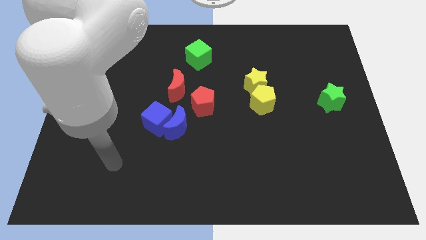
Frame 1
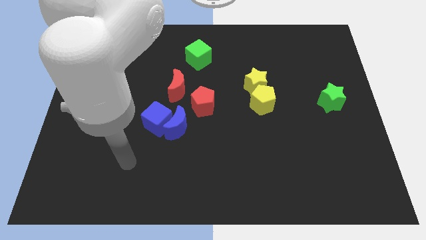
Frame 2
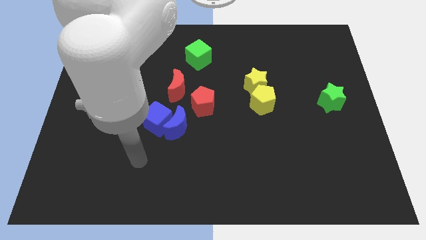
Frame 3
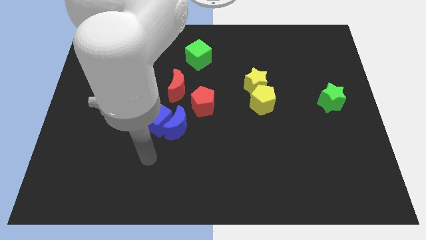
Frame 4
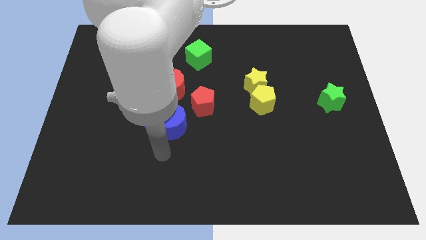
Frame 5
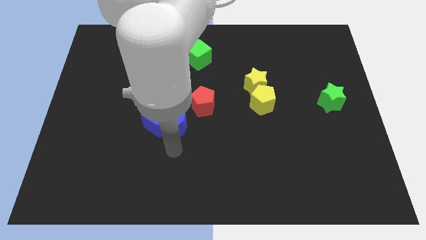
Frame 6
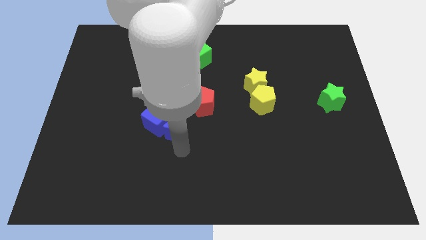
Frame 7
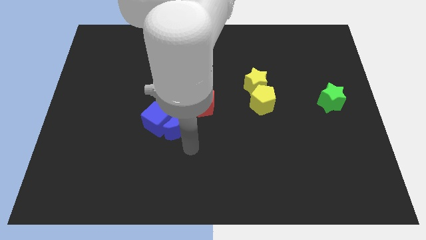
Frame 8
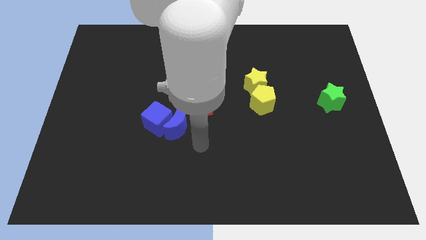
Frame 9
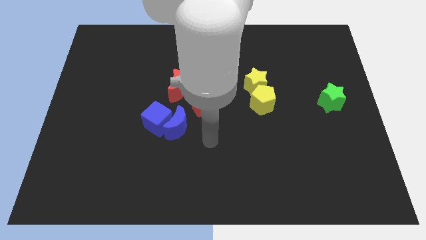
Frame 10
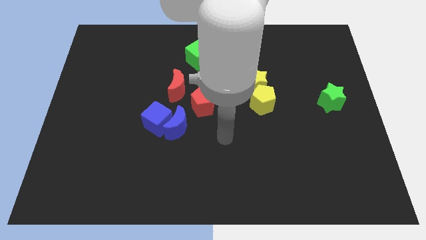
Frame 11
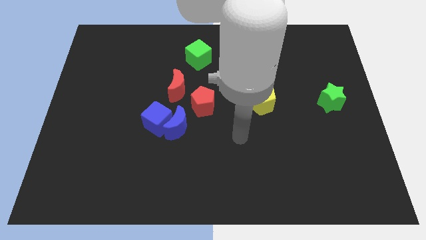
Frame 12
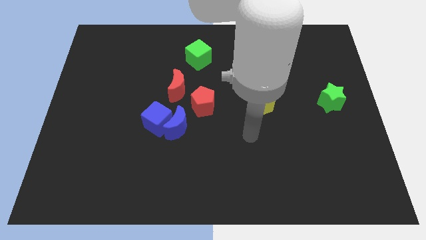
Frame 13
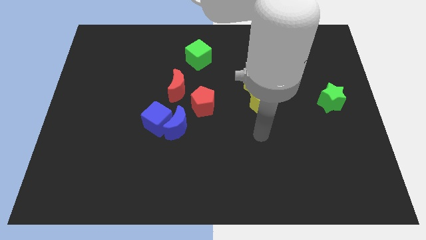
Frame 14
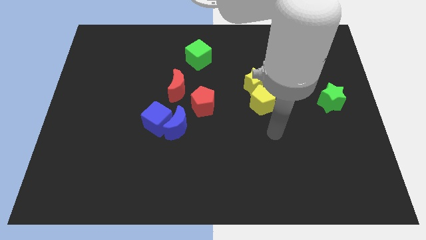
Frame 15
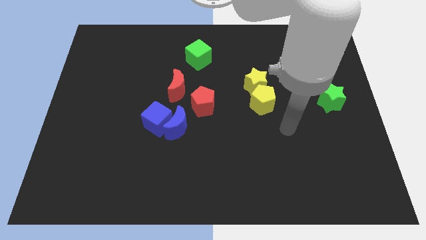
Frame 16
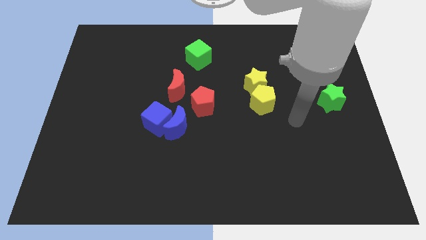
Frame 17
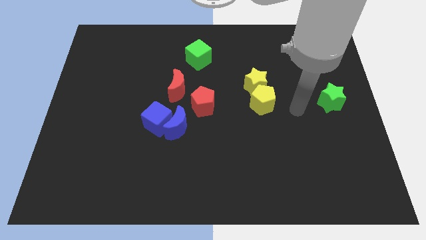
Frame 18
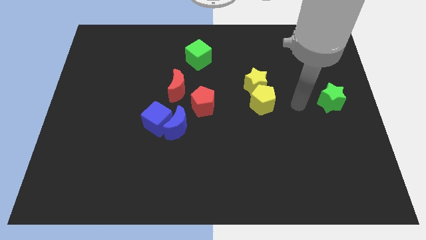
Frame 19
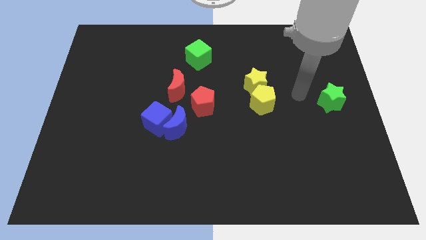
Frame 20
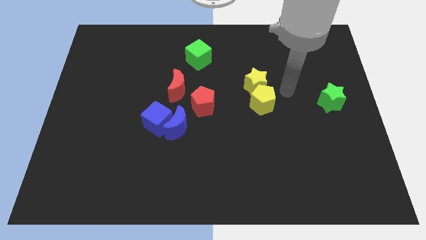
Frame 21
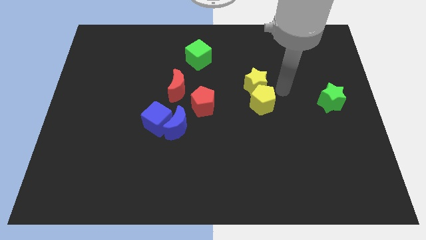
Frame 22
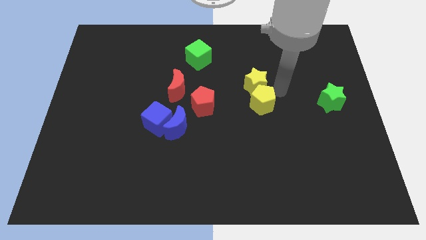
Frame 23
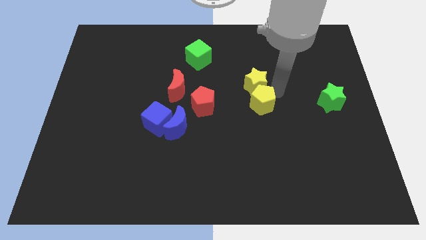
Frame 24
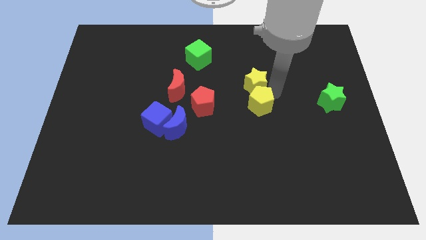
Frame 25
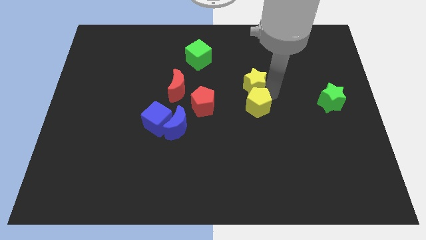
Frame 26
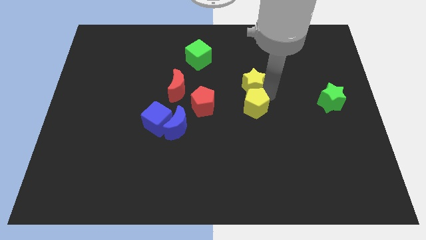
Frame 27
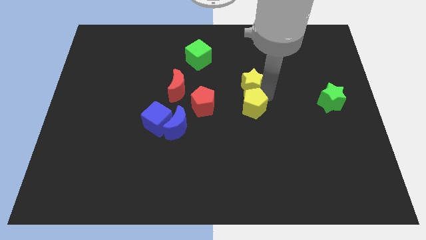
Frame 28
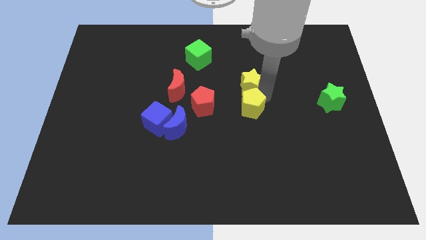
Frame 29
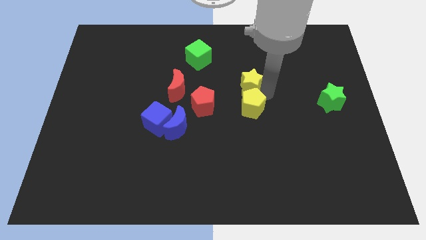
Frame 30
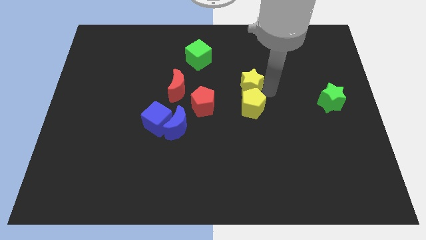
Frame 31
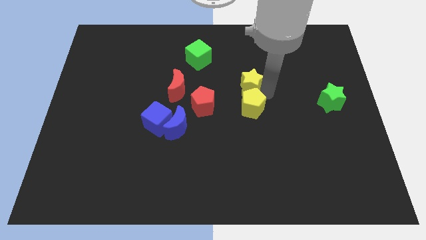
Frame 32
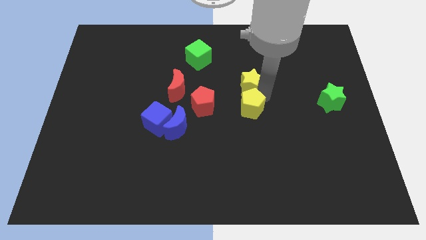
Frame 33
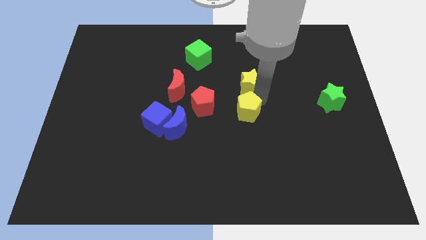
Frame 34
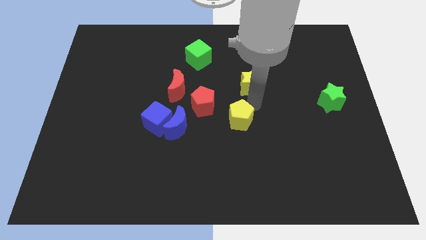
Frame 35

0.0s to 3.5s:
slightly push the yellow pentagon diagonally downwards and left

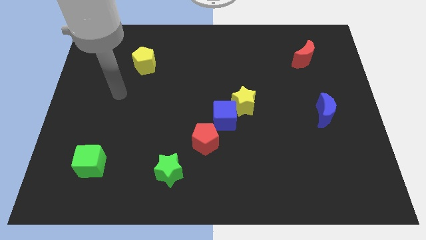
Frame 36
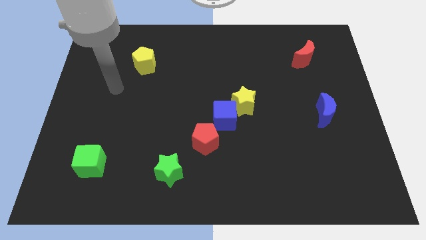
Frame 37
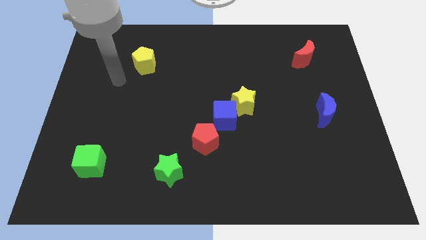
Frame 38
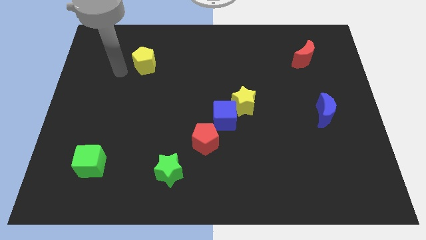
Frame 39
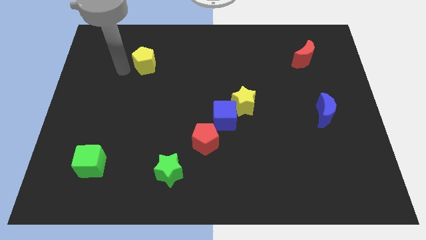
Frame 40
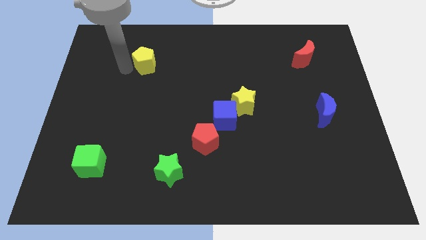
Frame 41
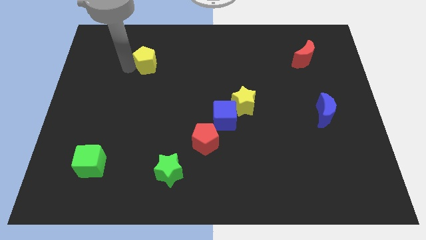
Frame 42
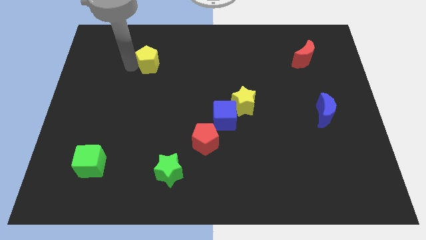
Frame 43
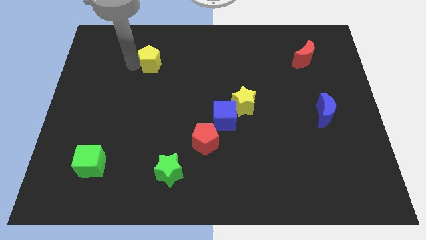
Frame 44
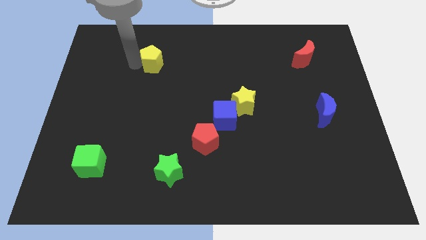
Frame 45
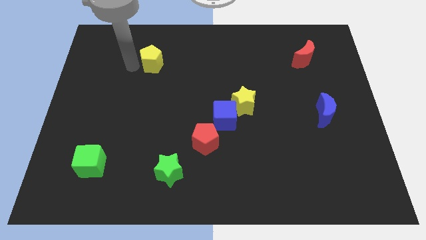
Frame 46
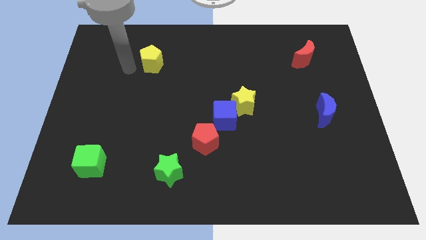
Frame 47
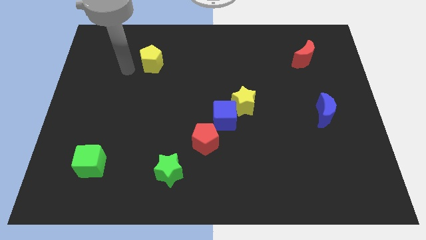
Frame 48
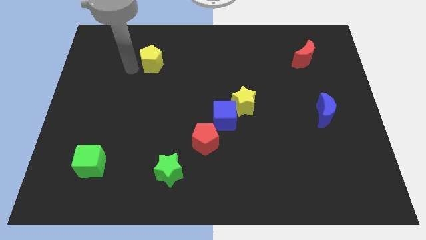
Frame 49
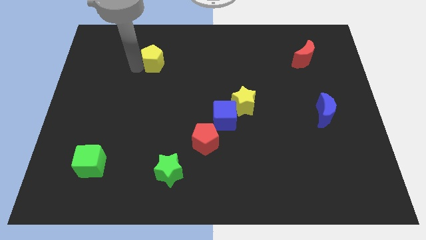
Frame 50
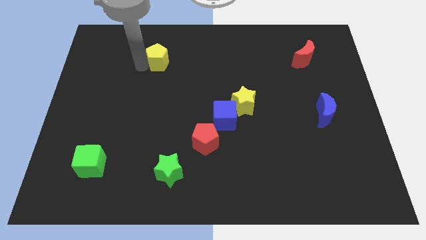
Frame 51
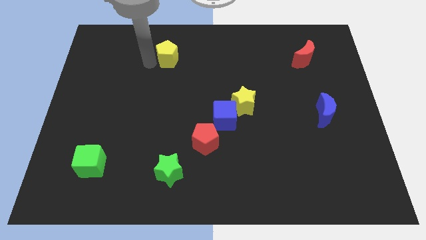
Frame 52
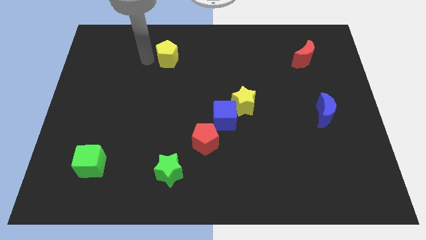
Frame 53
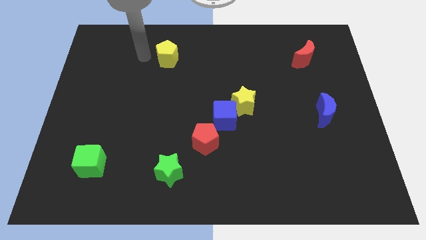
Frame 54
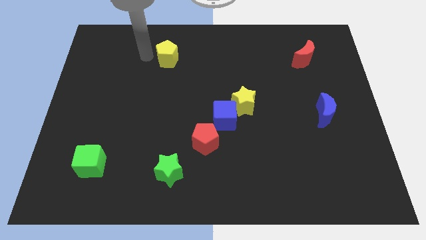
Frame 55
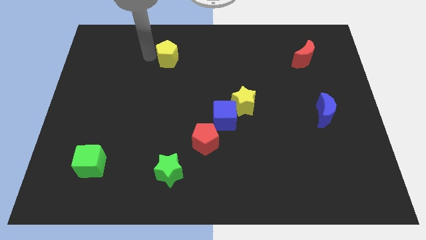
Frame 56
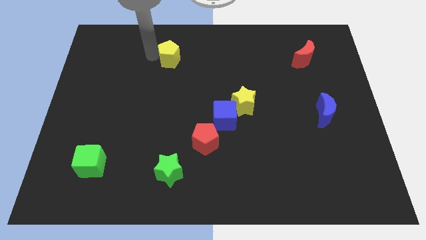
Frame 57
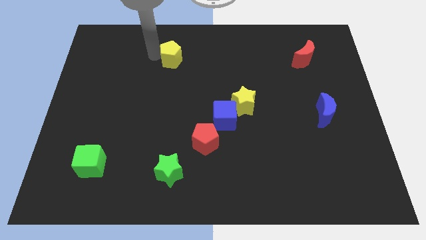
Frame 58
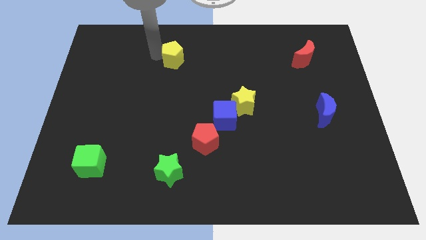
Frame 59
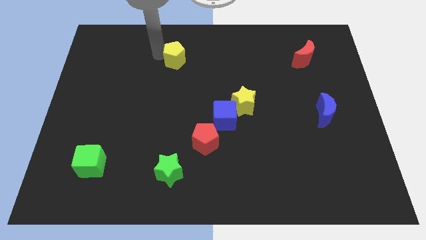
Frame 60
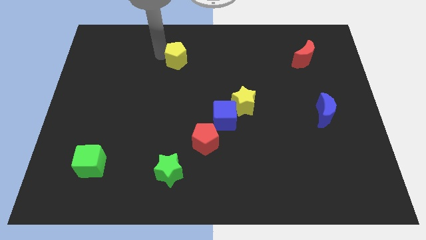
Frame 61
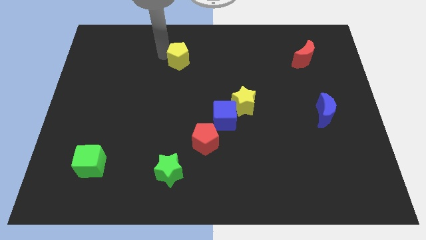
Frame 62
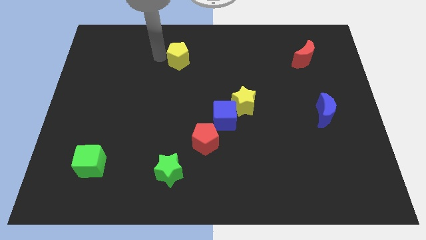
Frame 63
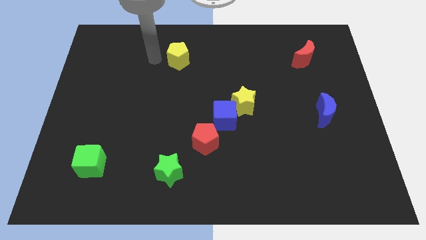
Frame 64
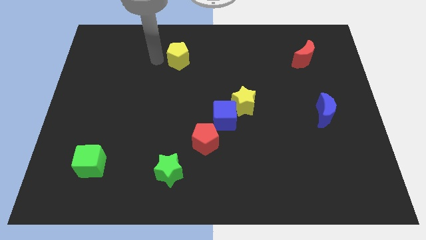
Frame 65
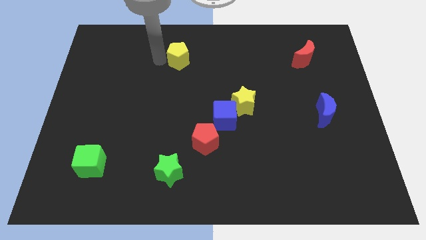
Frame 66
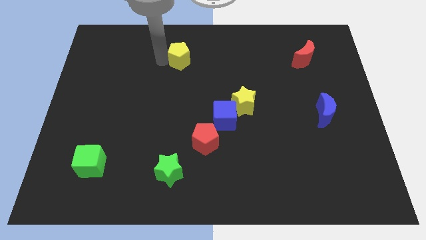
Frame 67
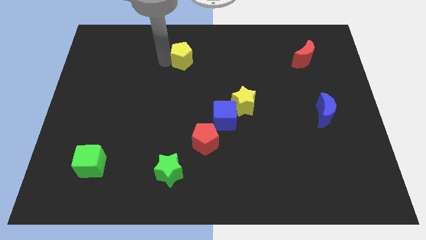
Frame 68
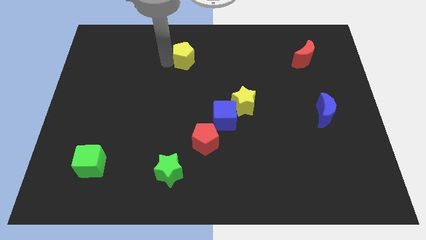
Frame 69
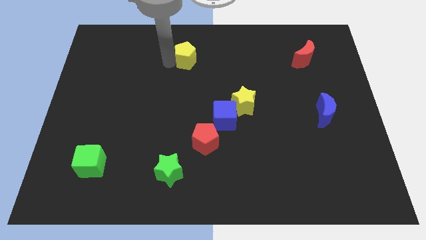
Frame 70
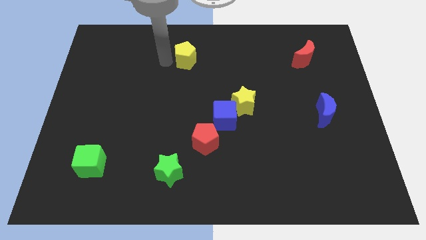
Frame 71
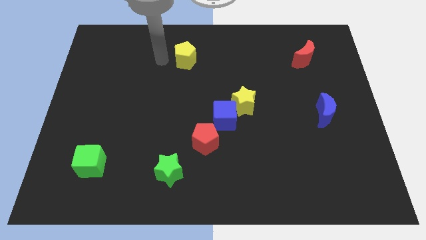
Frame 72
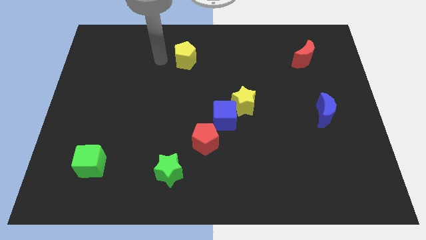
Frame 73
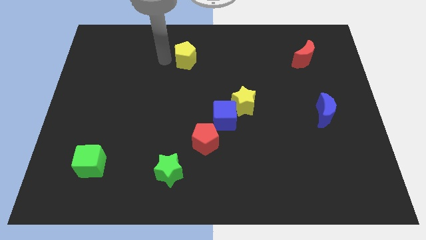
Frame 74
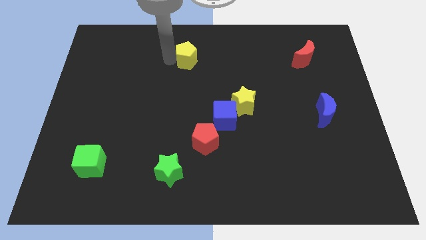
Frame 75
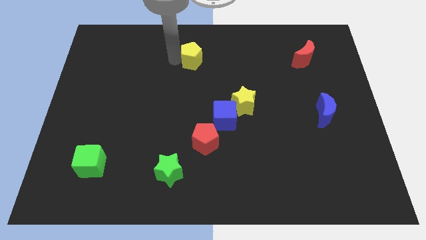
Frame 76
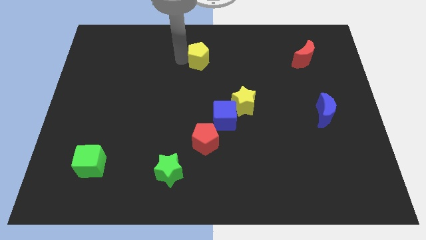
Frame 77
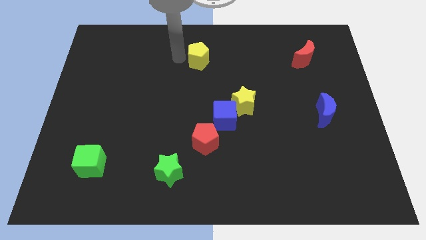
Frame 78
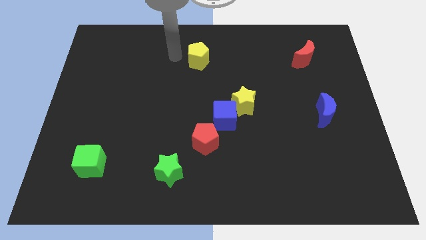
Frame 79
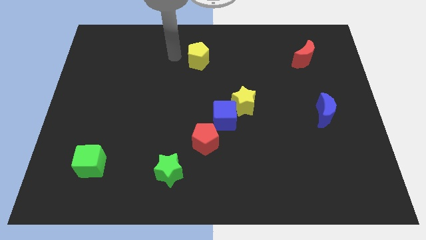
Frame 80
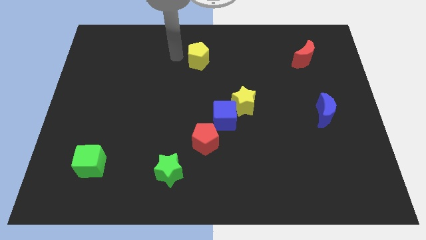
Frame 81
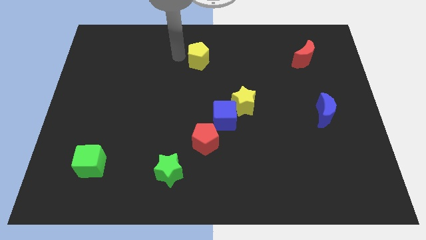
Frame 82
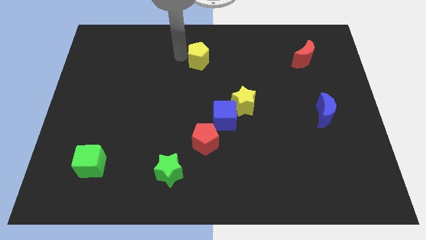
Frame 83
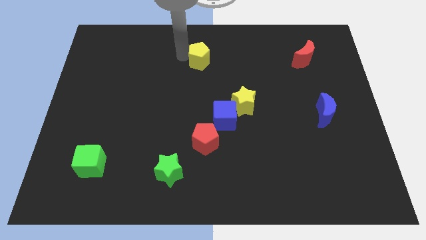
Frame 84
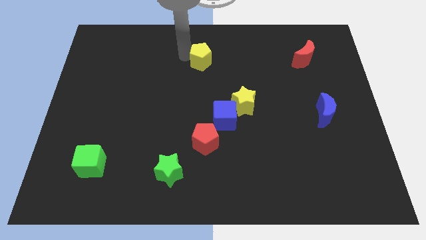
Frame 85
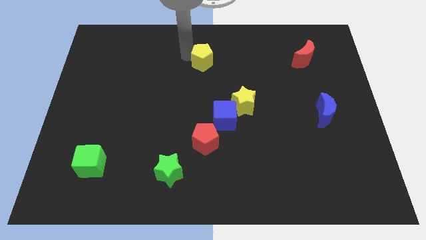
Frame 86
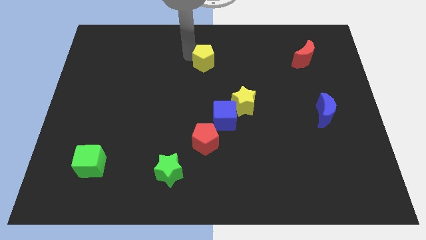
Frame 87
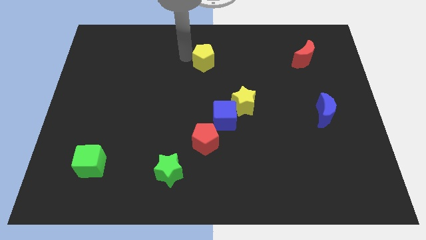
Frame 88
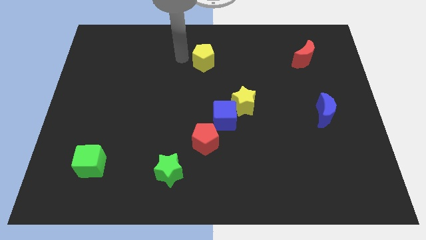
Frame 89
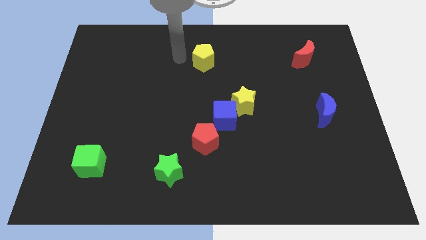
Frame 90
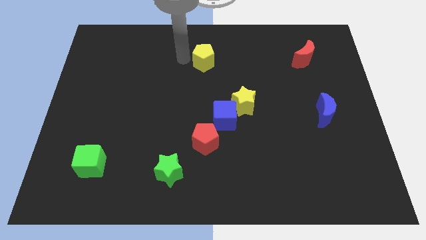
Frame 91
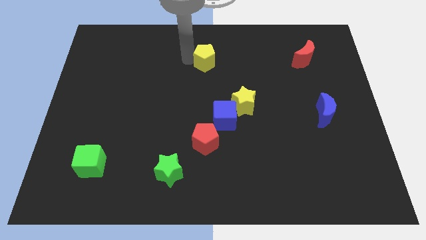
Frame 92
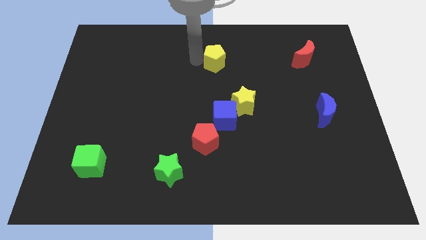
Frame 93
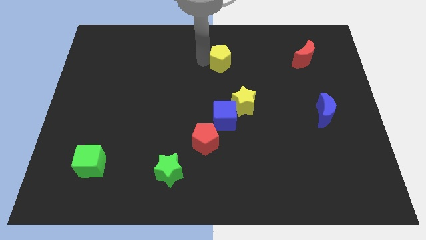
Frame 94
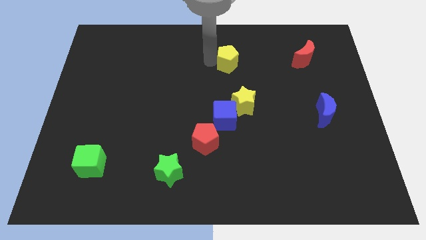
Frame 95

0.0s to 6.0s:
move the yellow pentagon right
